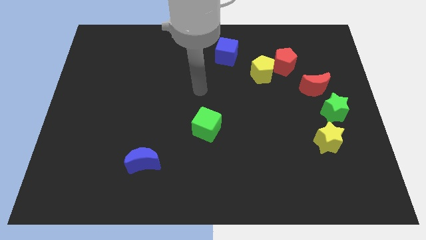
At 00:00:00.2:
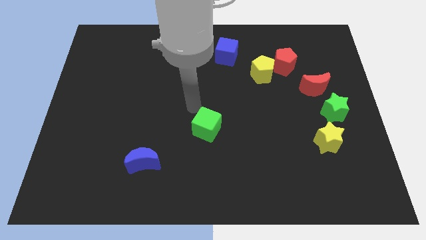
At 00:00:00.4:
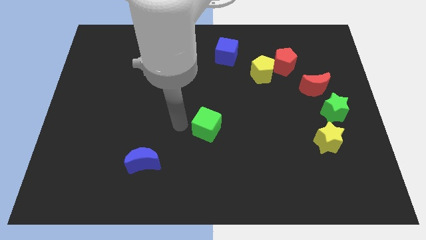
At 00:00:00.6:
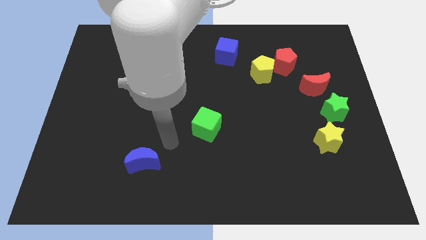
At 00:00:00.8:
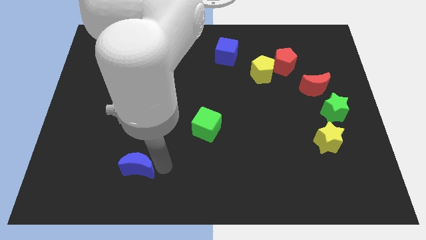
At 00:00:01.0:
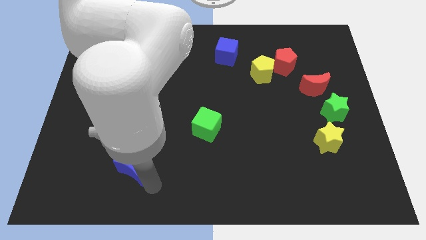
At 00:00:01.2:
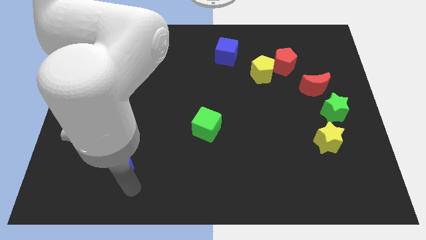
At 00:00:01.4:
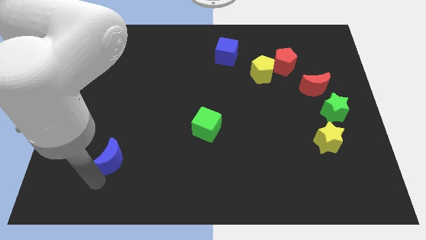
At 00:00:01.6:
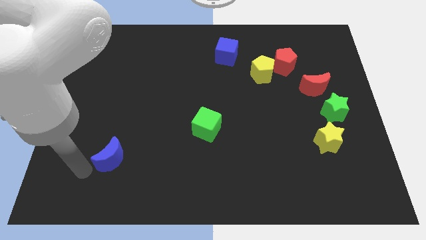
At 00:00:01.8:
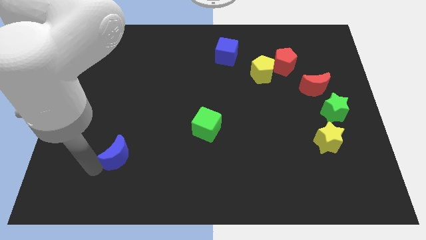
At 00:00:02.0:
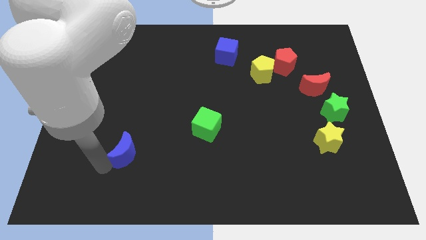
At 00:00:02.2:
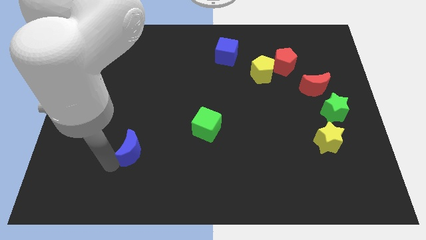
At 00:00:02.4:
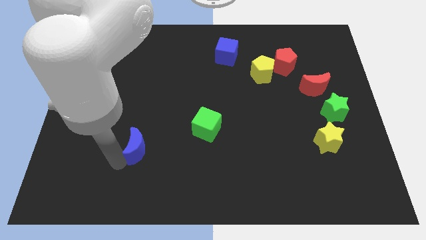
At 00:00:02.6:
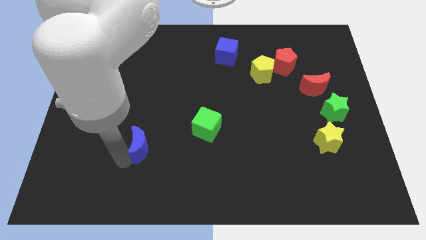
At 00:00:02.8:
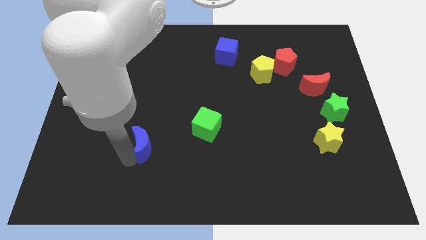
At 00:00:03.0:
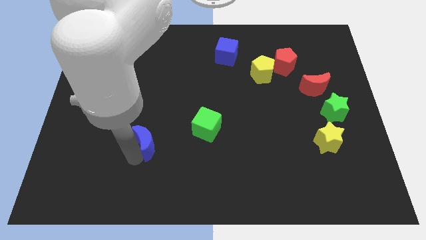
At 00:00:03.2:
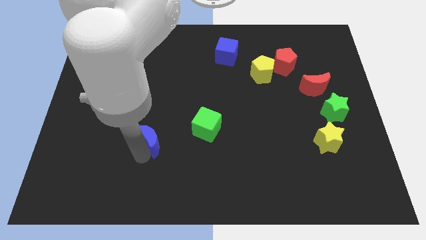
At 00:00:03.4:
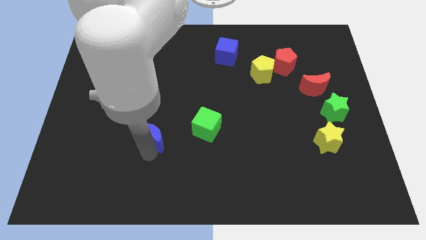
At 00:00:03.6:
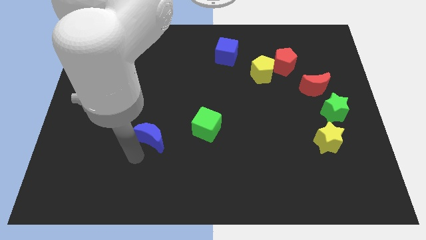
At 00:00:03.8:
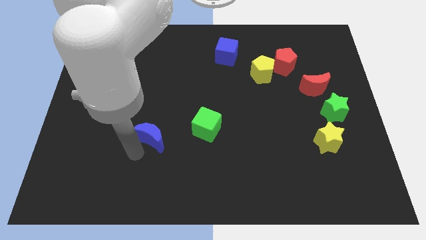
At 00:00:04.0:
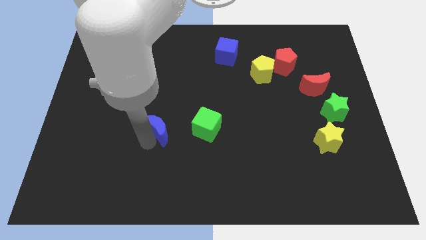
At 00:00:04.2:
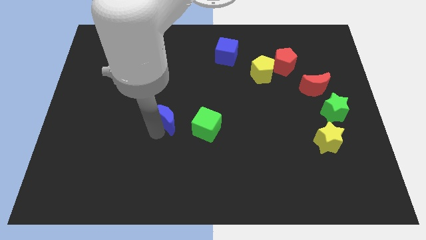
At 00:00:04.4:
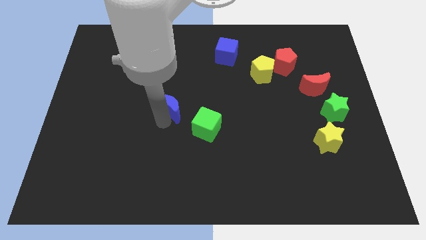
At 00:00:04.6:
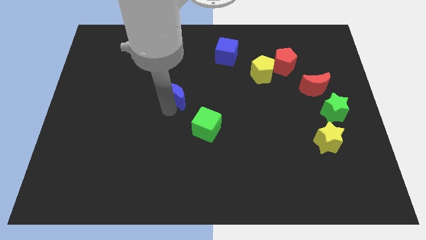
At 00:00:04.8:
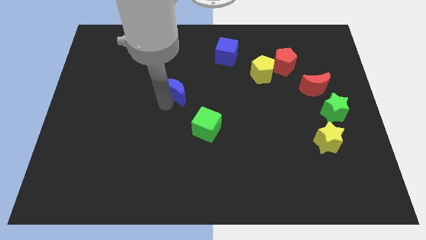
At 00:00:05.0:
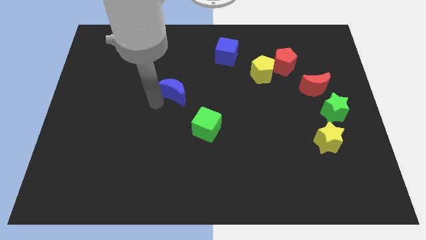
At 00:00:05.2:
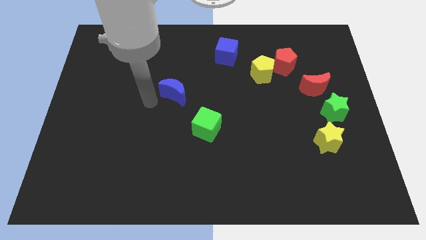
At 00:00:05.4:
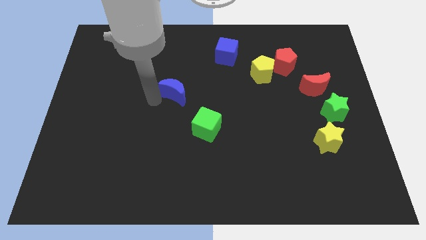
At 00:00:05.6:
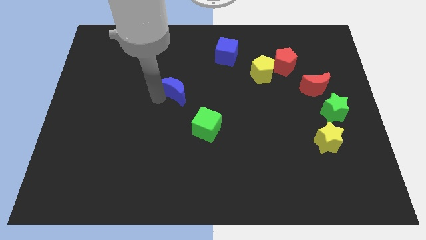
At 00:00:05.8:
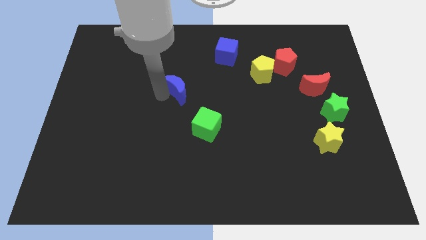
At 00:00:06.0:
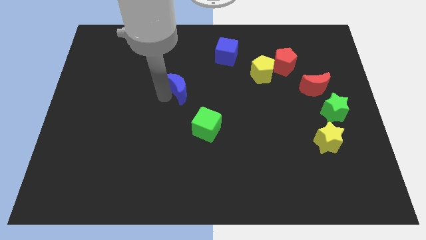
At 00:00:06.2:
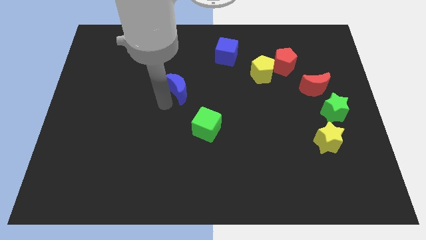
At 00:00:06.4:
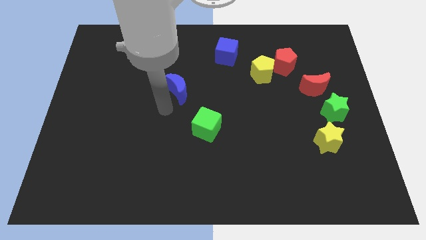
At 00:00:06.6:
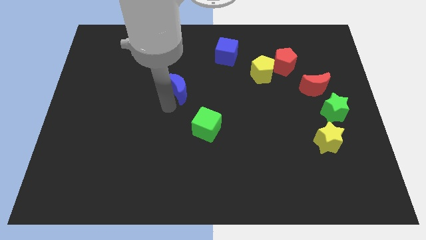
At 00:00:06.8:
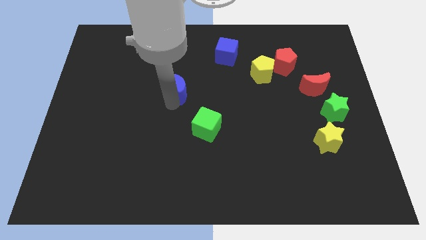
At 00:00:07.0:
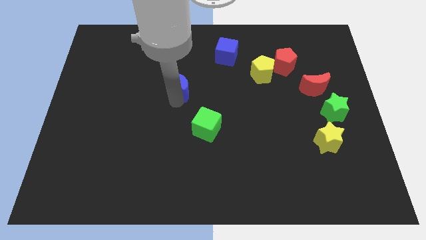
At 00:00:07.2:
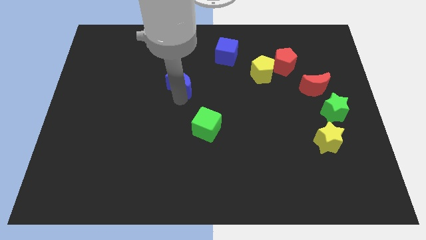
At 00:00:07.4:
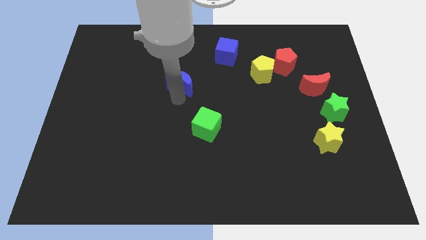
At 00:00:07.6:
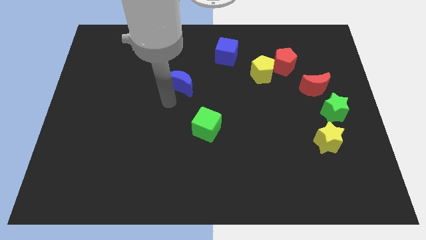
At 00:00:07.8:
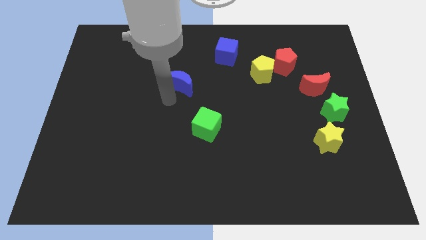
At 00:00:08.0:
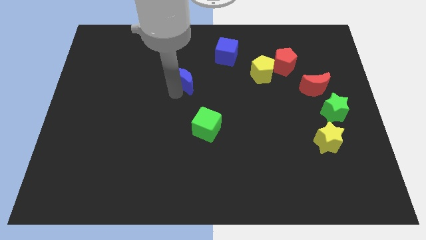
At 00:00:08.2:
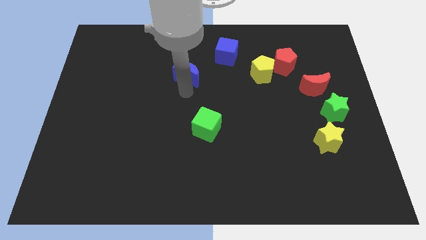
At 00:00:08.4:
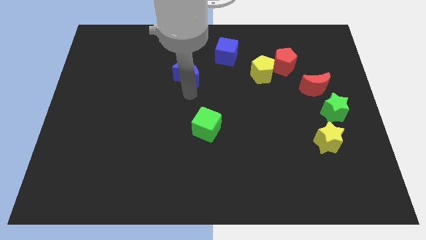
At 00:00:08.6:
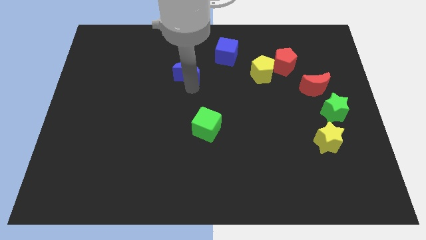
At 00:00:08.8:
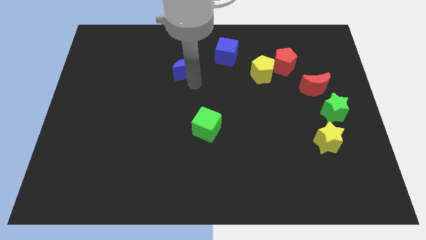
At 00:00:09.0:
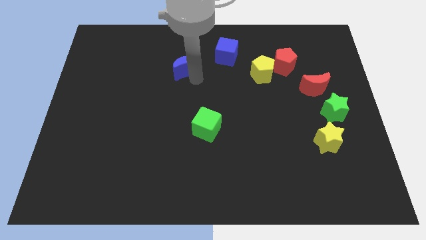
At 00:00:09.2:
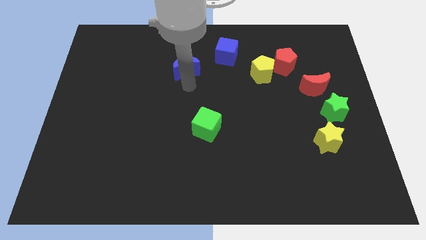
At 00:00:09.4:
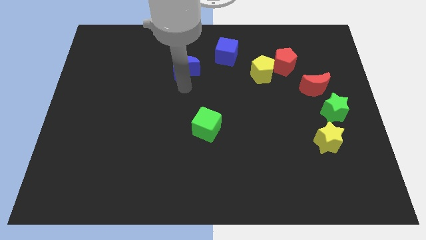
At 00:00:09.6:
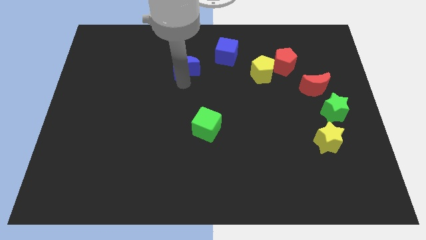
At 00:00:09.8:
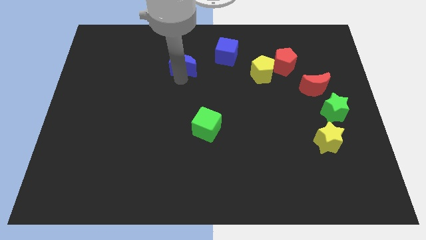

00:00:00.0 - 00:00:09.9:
slide the blue moon to the left of the blue cube

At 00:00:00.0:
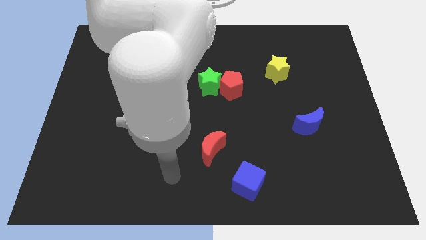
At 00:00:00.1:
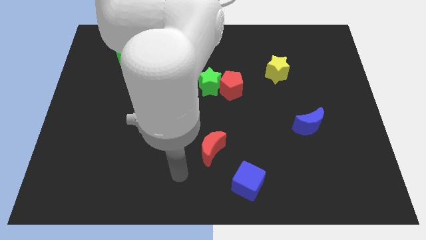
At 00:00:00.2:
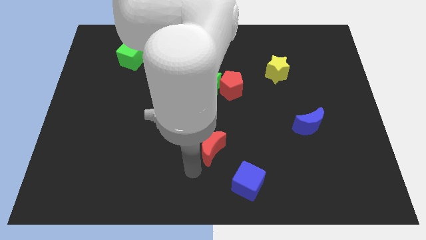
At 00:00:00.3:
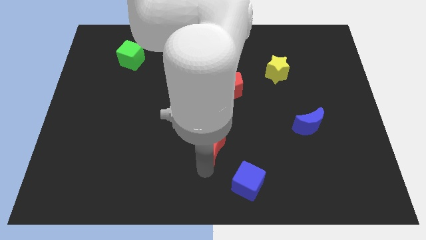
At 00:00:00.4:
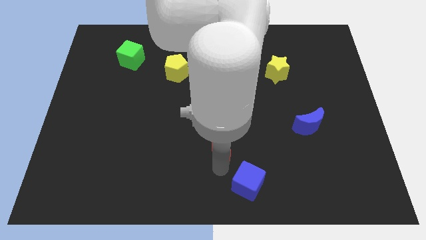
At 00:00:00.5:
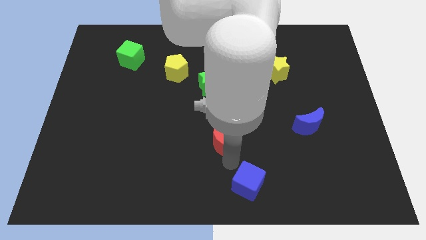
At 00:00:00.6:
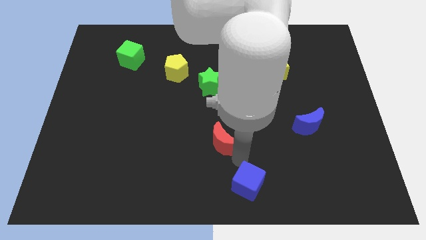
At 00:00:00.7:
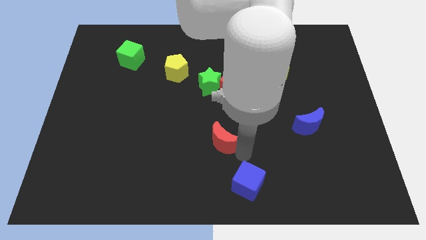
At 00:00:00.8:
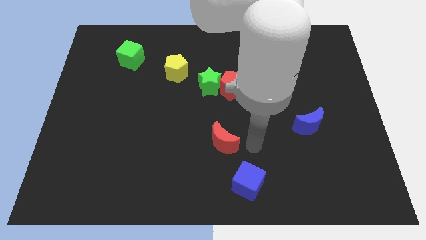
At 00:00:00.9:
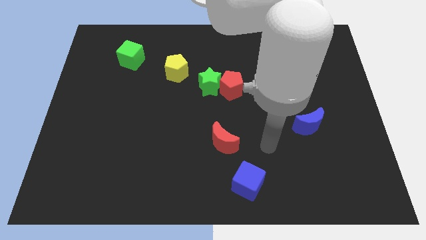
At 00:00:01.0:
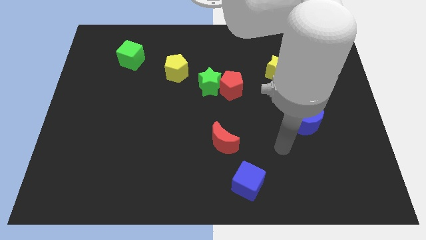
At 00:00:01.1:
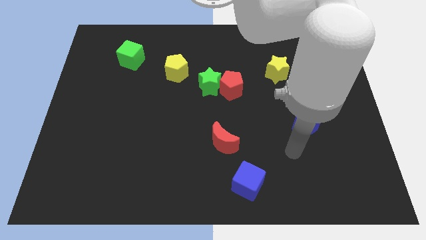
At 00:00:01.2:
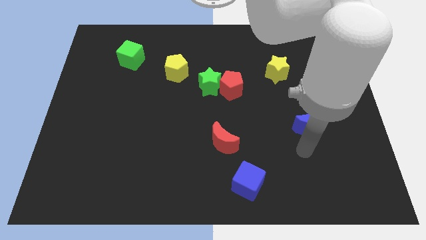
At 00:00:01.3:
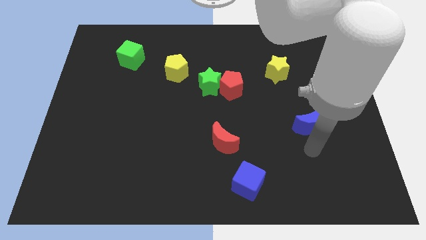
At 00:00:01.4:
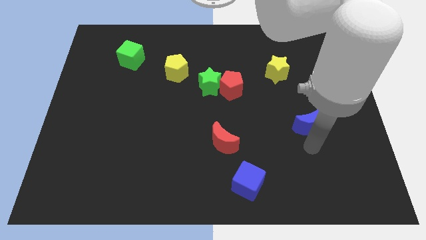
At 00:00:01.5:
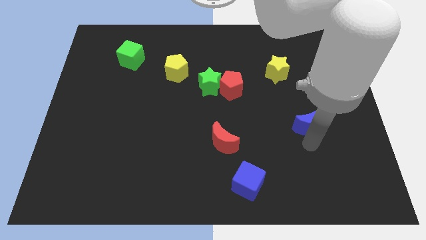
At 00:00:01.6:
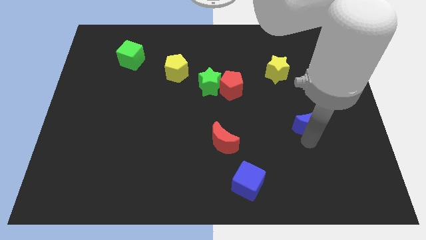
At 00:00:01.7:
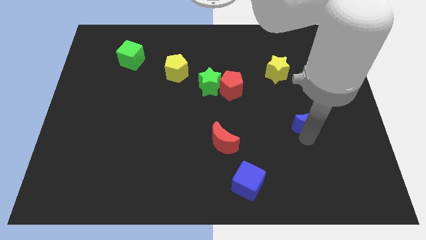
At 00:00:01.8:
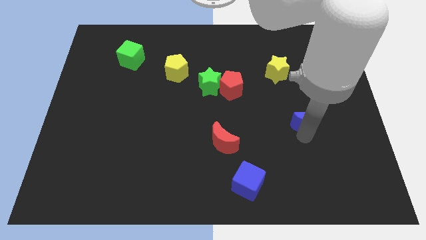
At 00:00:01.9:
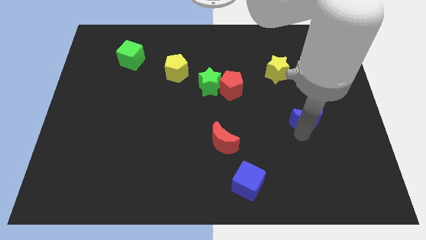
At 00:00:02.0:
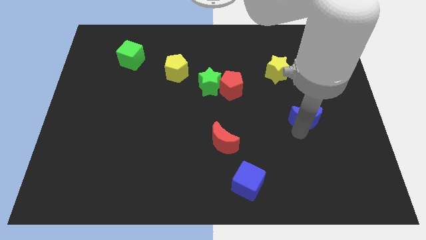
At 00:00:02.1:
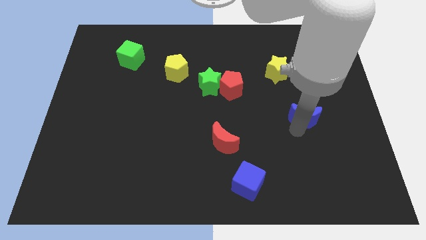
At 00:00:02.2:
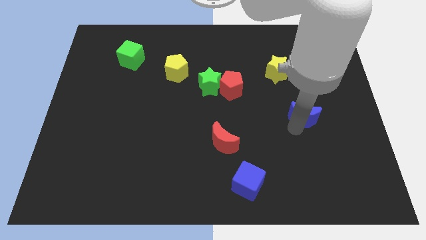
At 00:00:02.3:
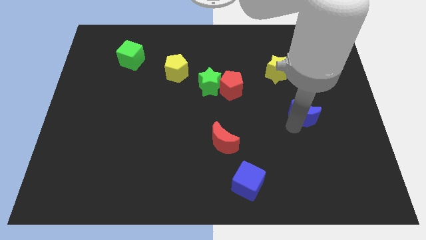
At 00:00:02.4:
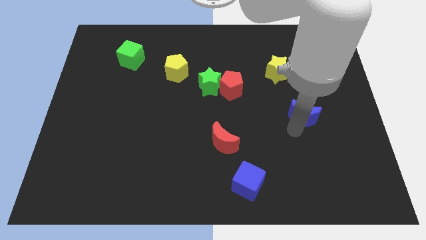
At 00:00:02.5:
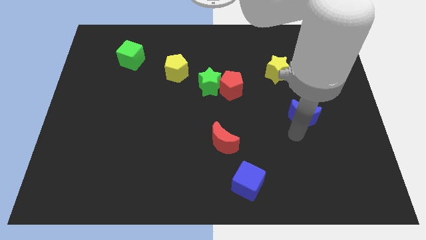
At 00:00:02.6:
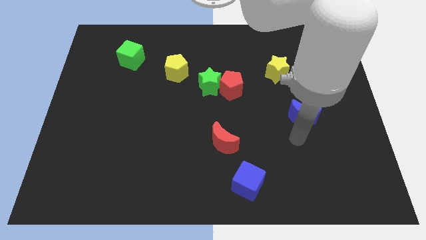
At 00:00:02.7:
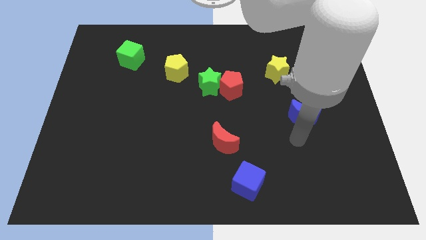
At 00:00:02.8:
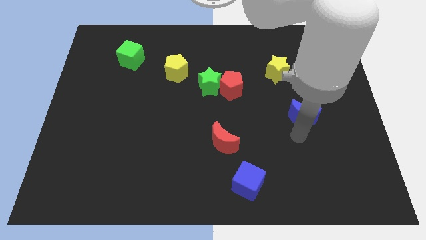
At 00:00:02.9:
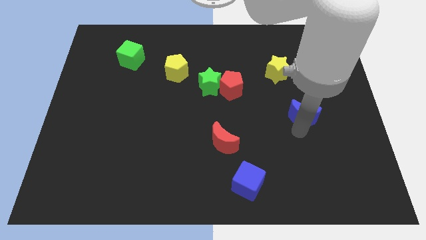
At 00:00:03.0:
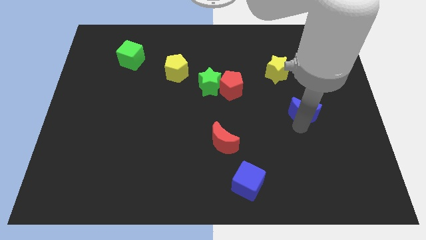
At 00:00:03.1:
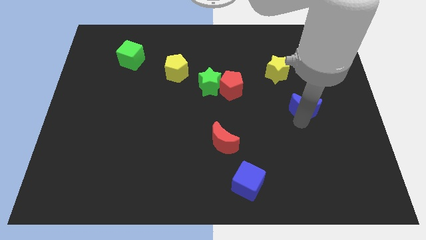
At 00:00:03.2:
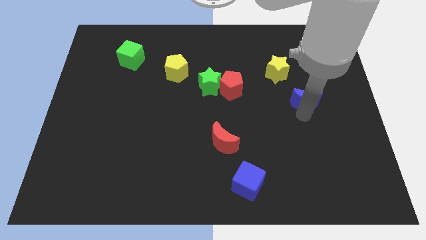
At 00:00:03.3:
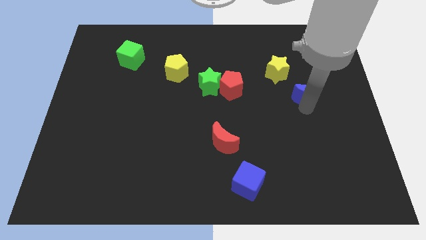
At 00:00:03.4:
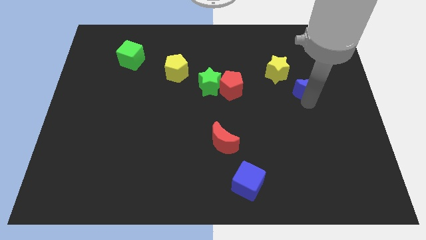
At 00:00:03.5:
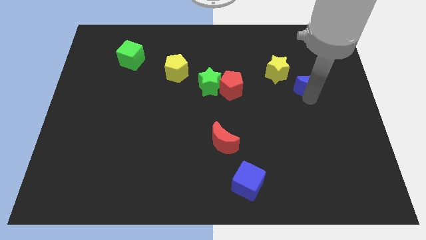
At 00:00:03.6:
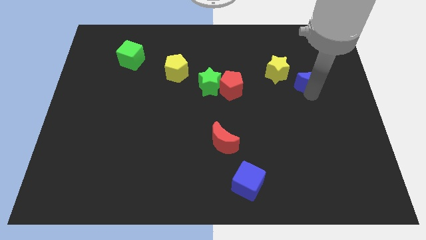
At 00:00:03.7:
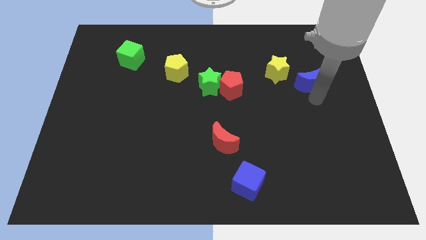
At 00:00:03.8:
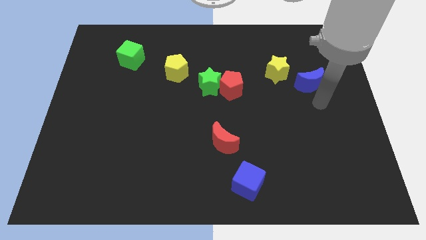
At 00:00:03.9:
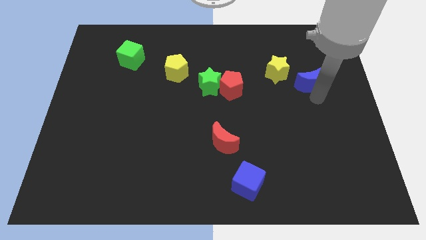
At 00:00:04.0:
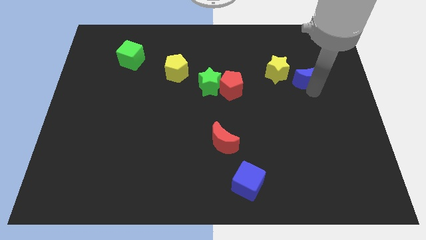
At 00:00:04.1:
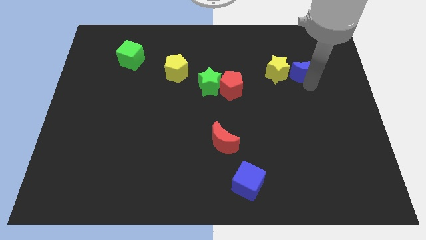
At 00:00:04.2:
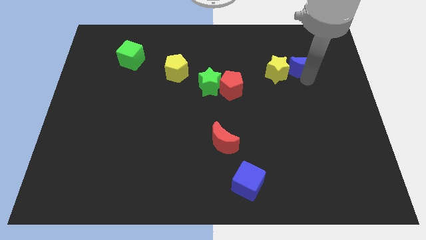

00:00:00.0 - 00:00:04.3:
slide the blue moon to the top right of the yellow star
